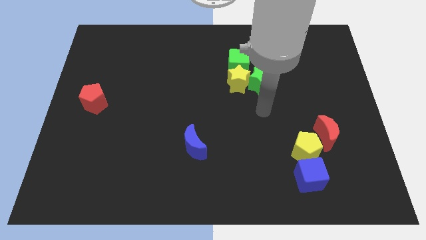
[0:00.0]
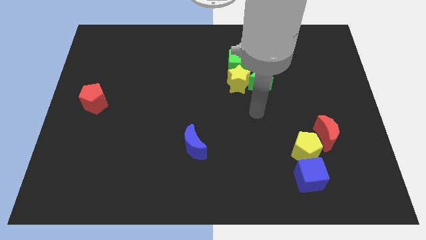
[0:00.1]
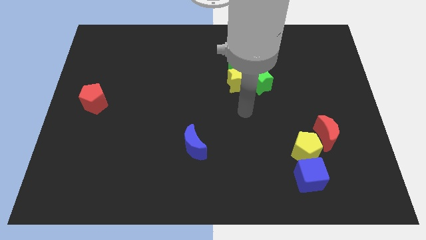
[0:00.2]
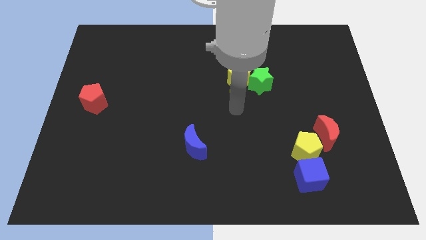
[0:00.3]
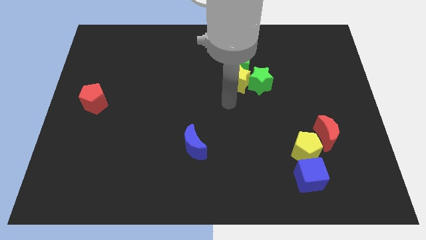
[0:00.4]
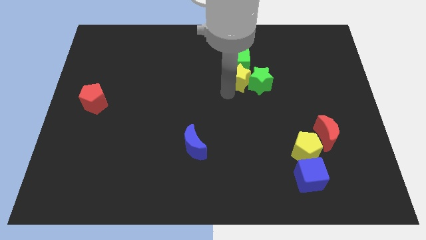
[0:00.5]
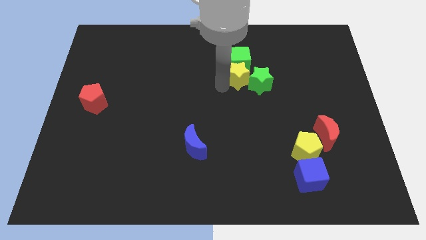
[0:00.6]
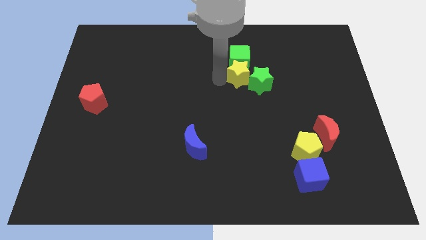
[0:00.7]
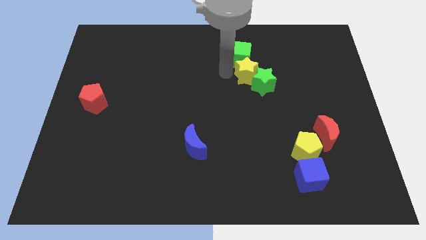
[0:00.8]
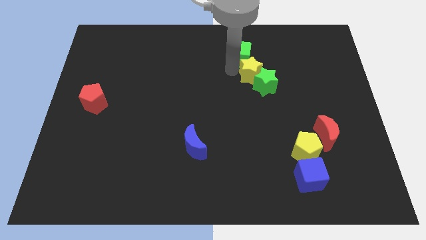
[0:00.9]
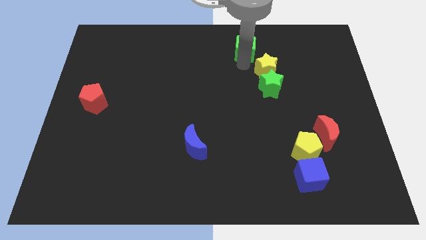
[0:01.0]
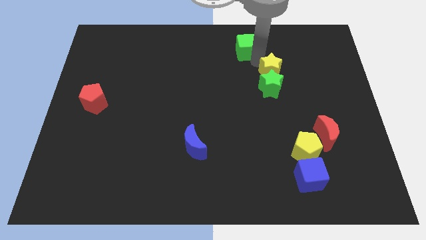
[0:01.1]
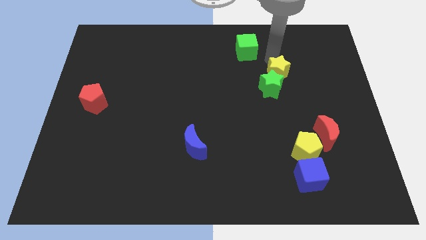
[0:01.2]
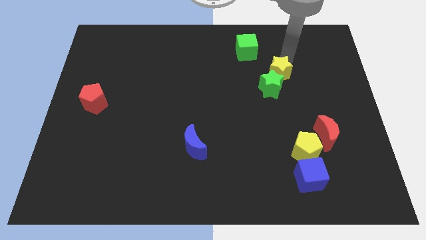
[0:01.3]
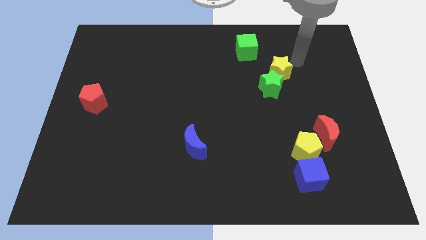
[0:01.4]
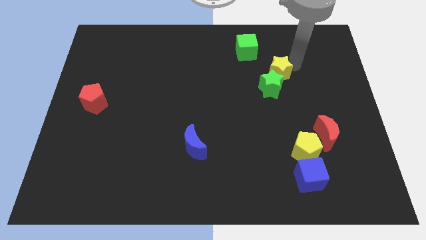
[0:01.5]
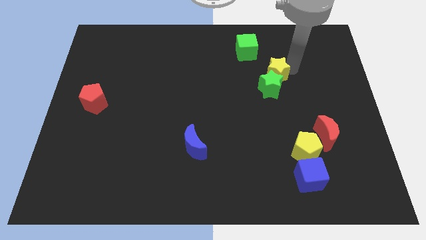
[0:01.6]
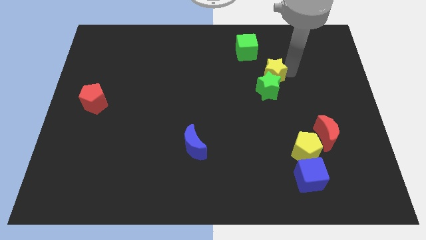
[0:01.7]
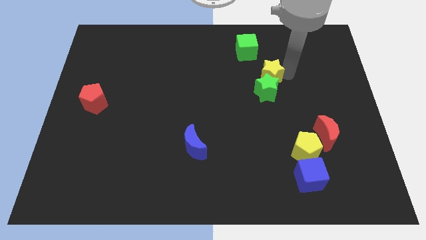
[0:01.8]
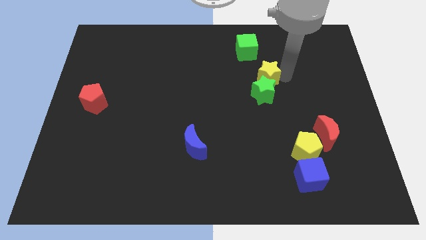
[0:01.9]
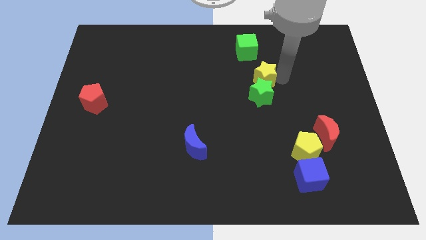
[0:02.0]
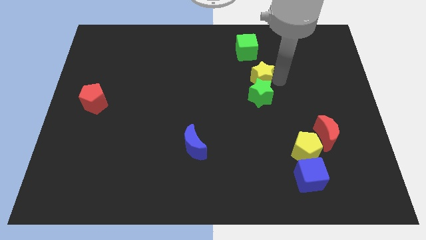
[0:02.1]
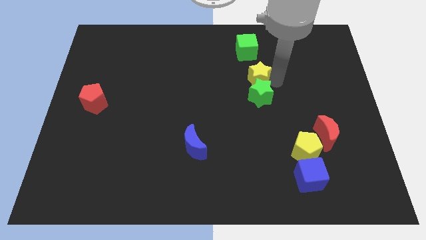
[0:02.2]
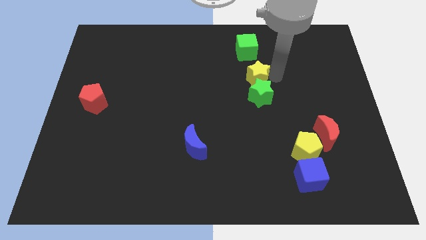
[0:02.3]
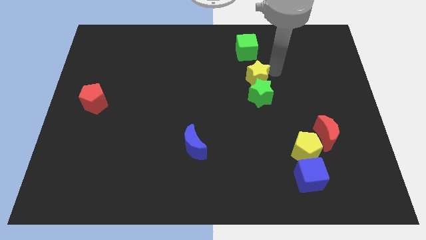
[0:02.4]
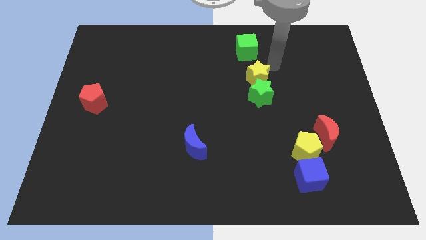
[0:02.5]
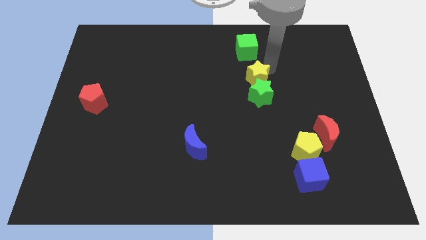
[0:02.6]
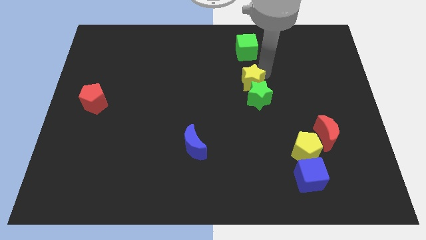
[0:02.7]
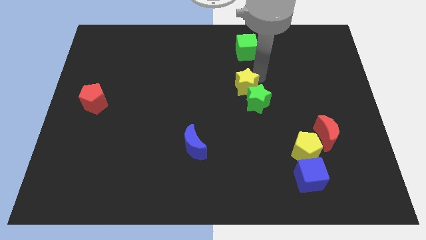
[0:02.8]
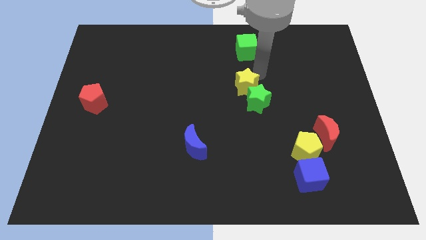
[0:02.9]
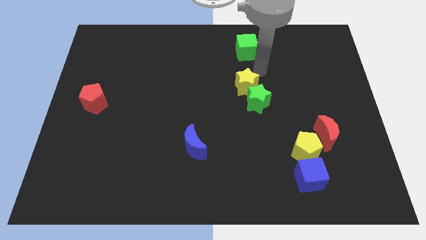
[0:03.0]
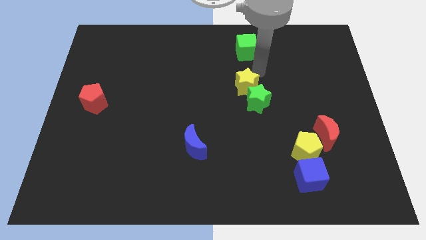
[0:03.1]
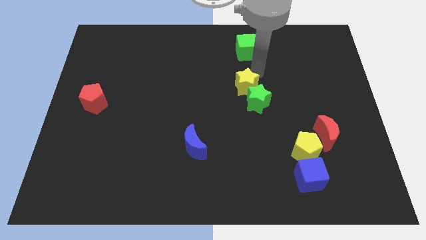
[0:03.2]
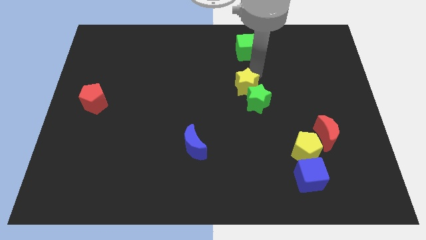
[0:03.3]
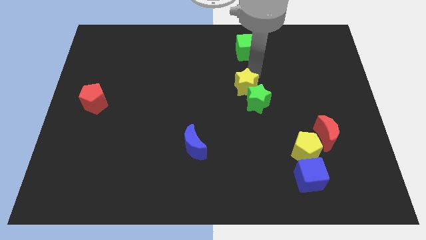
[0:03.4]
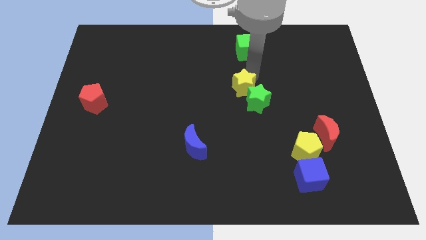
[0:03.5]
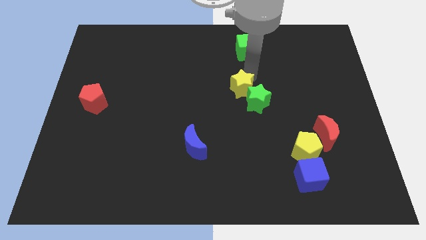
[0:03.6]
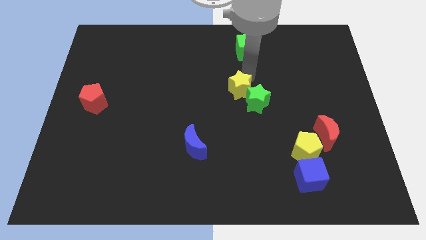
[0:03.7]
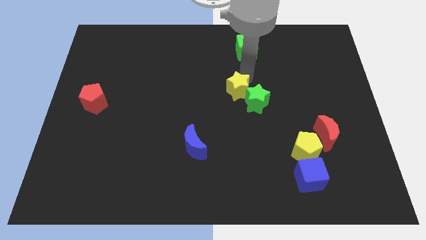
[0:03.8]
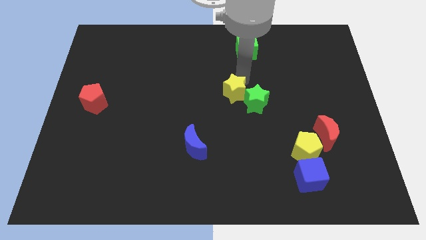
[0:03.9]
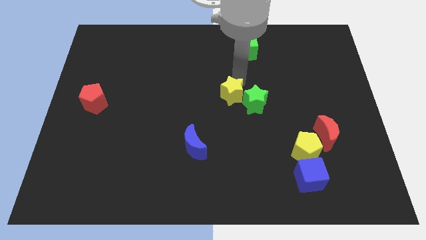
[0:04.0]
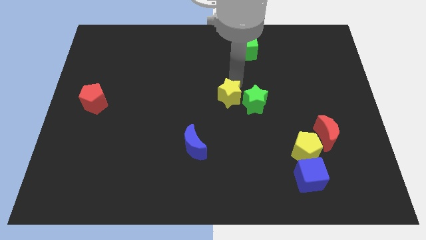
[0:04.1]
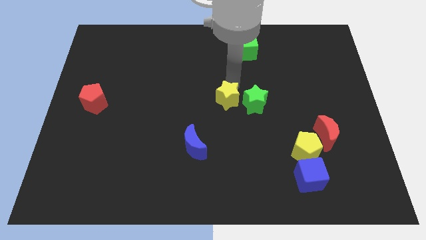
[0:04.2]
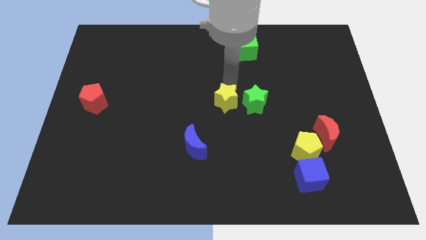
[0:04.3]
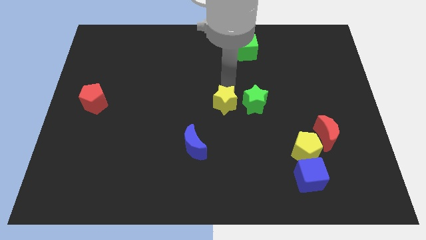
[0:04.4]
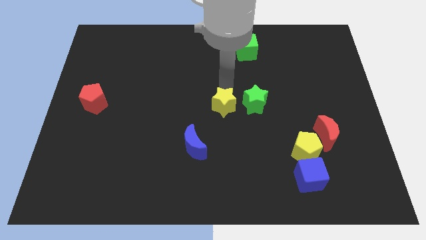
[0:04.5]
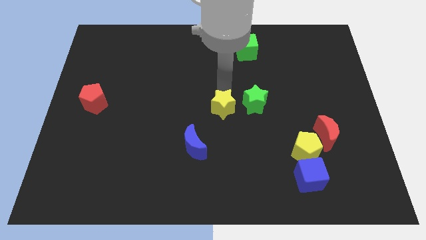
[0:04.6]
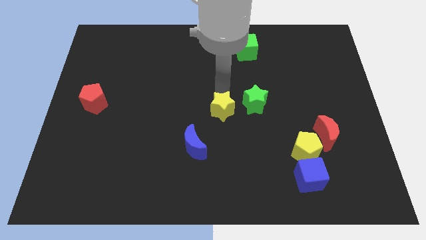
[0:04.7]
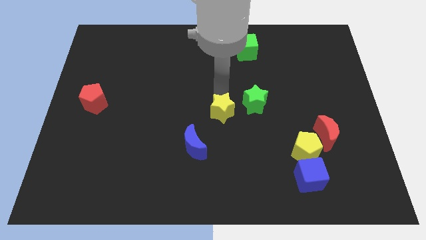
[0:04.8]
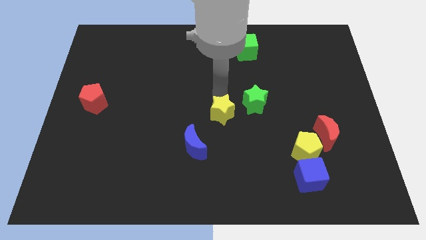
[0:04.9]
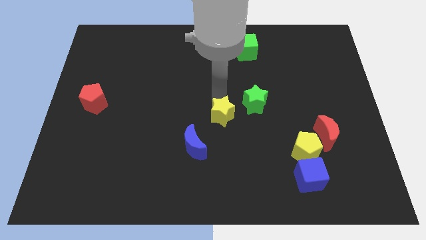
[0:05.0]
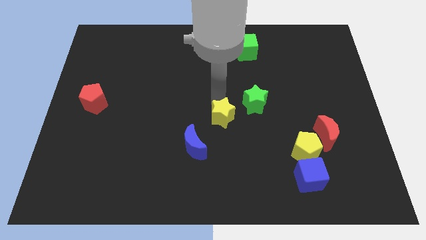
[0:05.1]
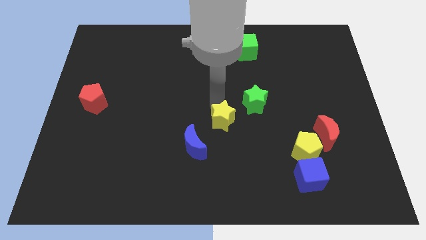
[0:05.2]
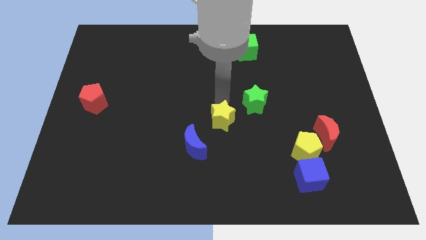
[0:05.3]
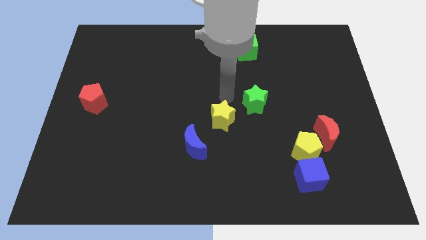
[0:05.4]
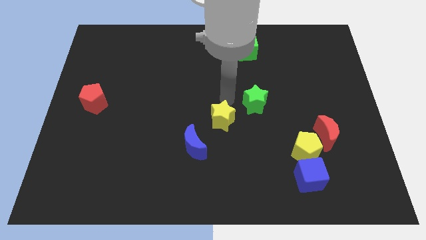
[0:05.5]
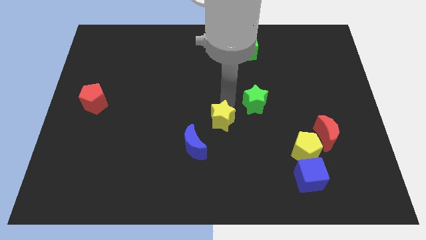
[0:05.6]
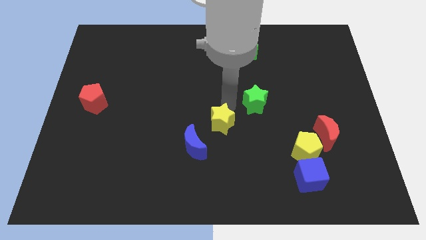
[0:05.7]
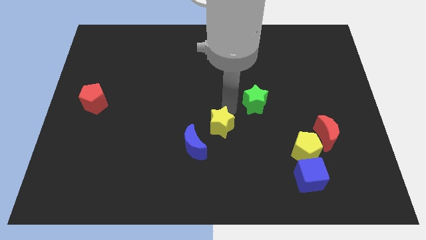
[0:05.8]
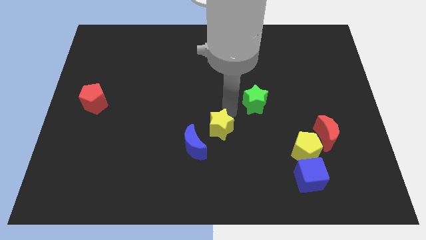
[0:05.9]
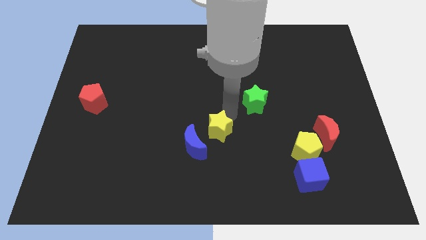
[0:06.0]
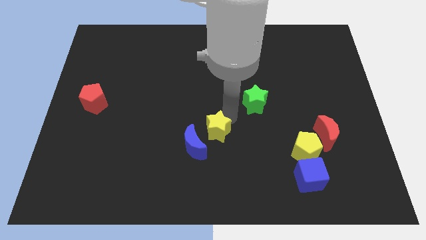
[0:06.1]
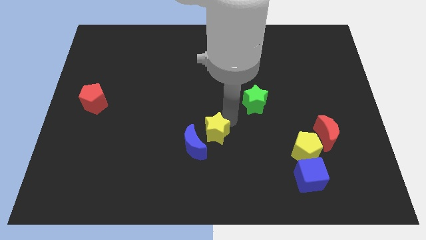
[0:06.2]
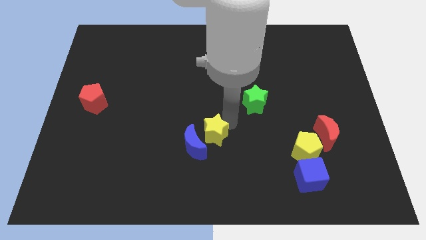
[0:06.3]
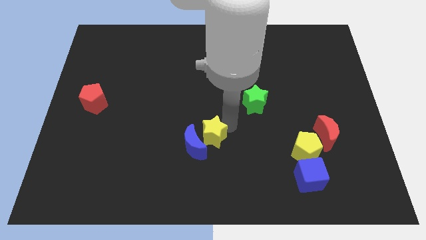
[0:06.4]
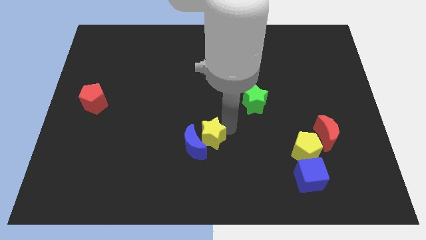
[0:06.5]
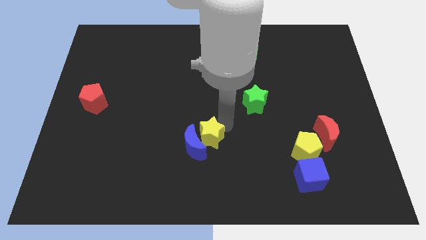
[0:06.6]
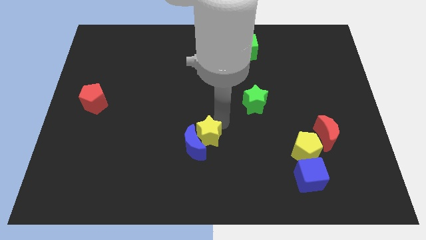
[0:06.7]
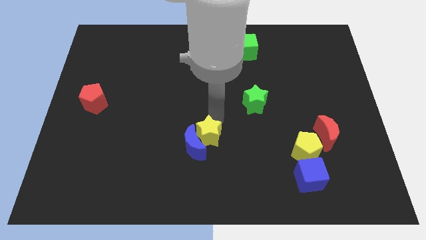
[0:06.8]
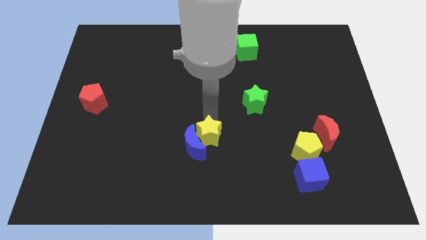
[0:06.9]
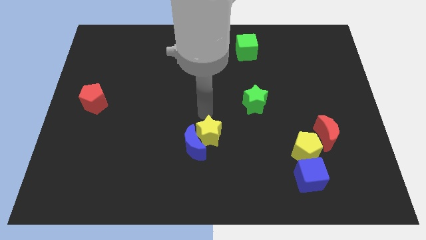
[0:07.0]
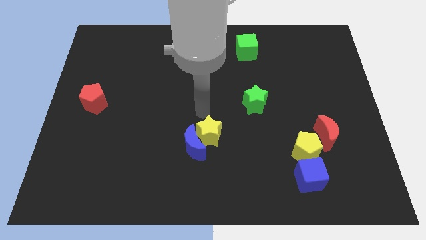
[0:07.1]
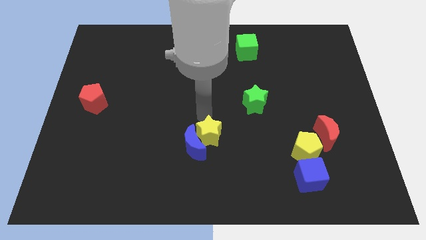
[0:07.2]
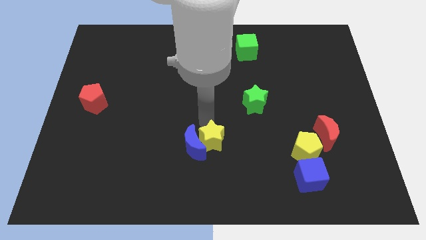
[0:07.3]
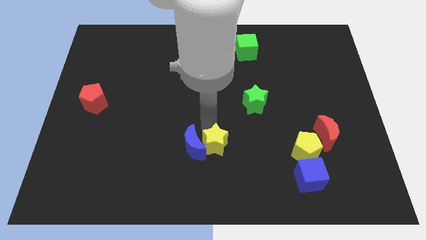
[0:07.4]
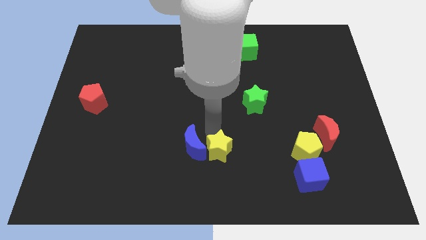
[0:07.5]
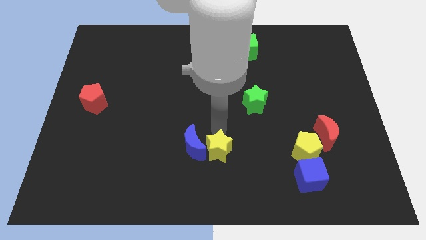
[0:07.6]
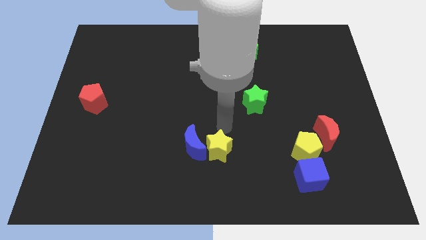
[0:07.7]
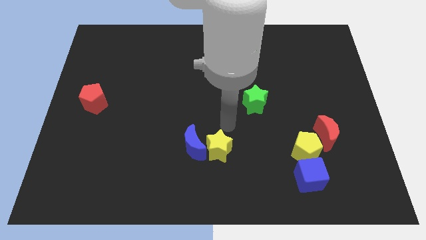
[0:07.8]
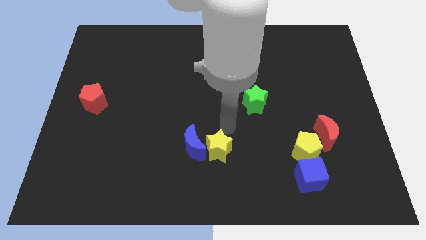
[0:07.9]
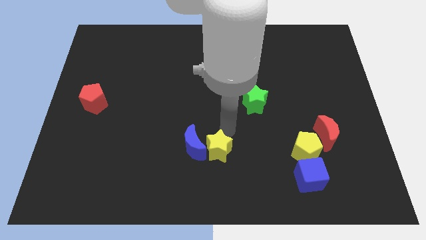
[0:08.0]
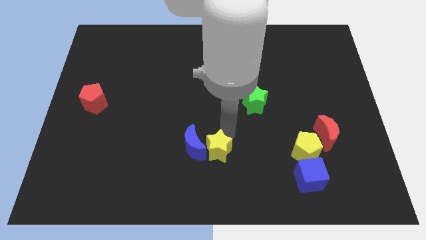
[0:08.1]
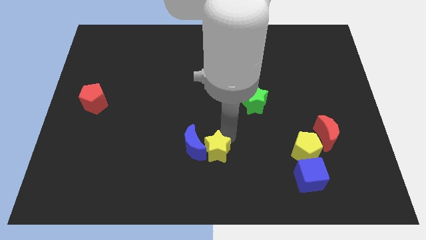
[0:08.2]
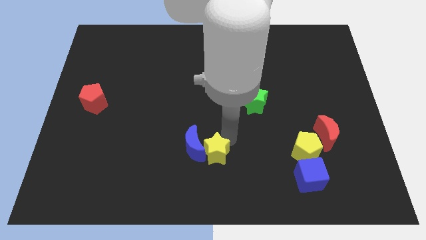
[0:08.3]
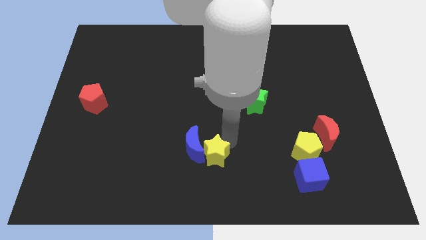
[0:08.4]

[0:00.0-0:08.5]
push the yellow star to the bottom side
